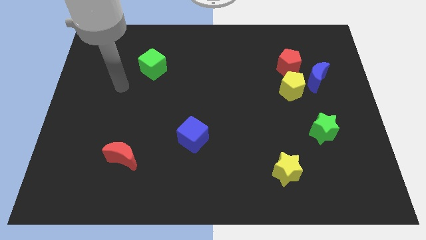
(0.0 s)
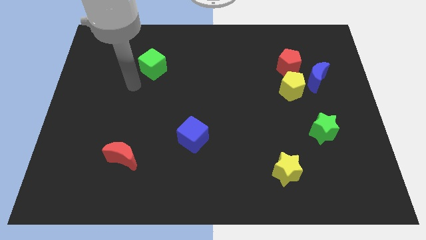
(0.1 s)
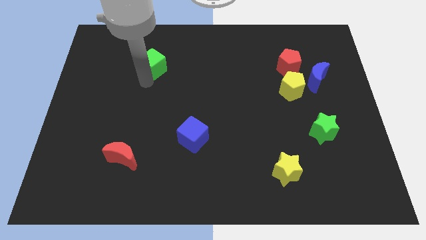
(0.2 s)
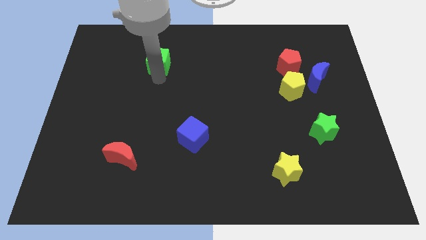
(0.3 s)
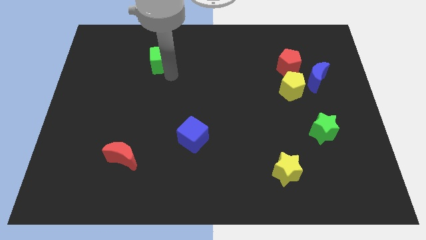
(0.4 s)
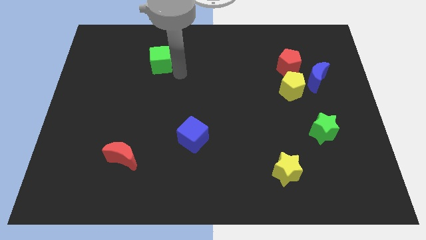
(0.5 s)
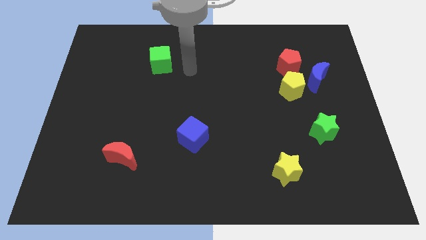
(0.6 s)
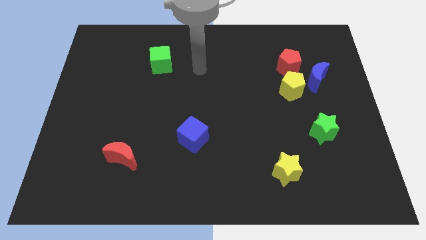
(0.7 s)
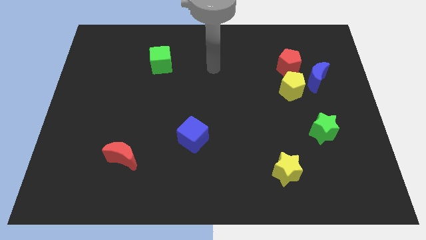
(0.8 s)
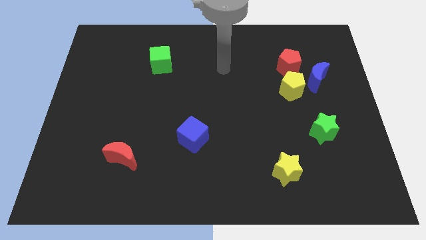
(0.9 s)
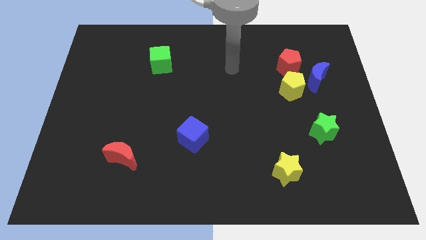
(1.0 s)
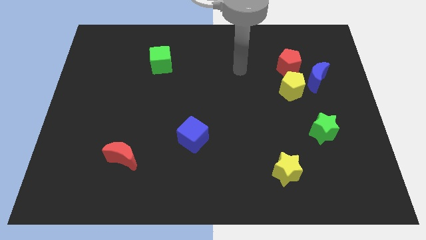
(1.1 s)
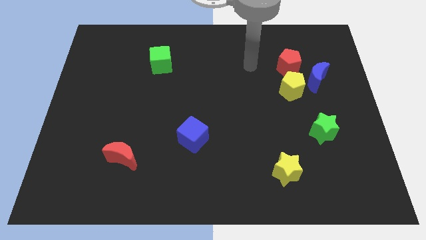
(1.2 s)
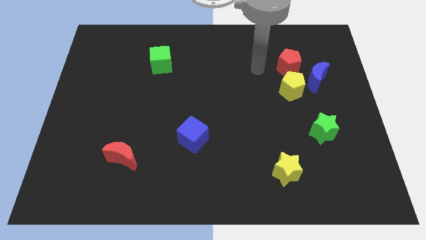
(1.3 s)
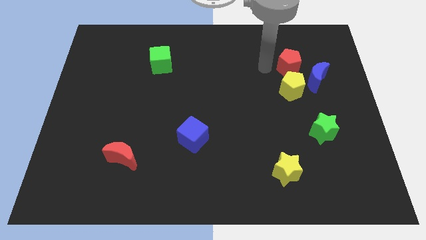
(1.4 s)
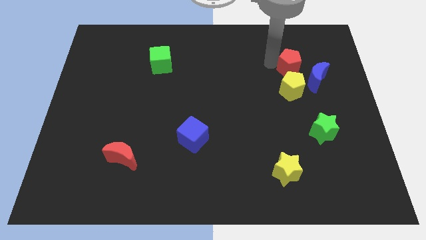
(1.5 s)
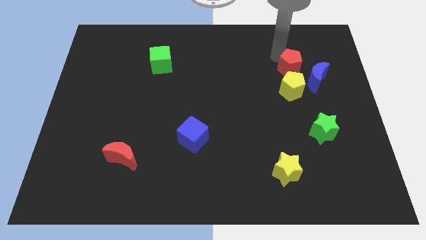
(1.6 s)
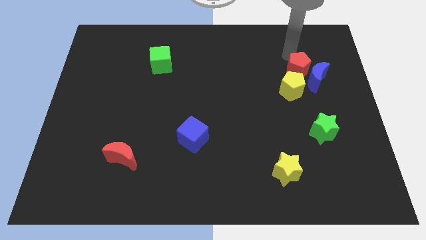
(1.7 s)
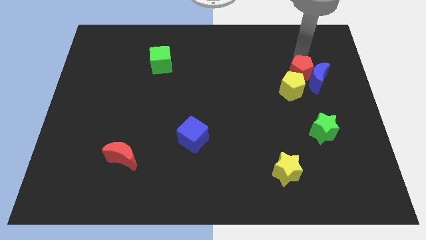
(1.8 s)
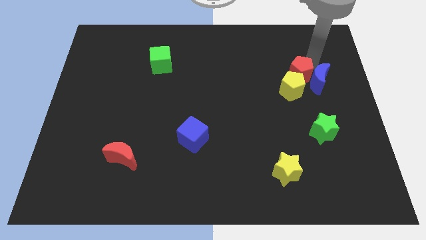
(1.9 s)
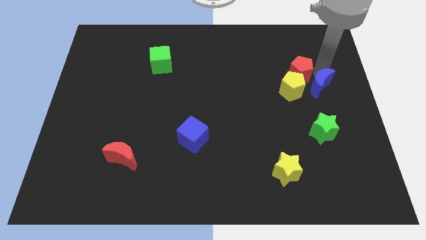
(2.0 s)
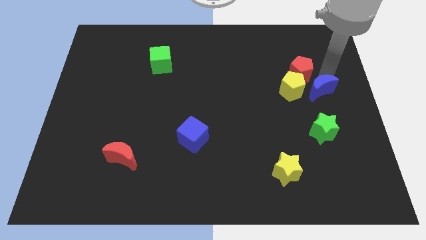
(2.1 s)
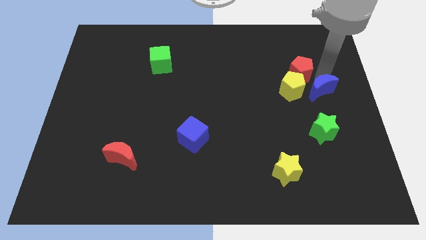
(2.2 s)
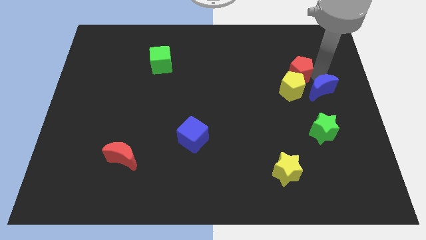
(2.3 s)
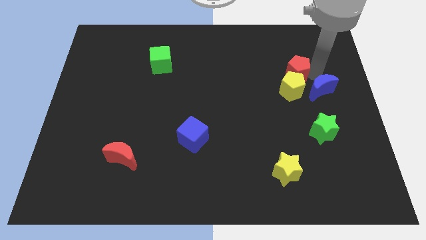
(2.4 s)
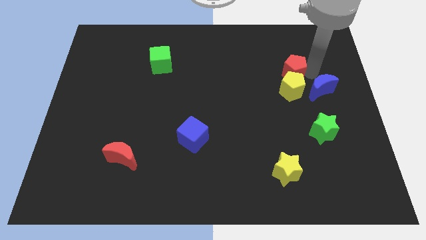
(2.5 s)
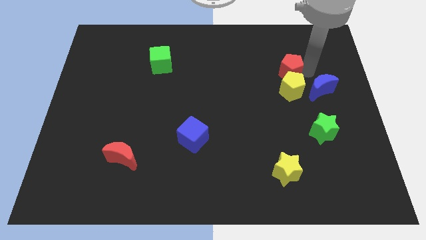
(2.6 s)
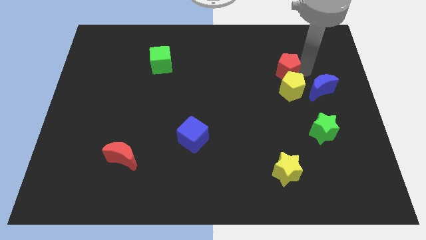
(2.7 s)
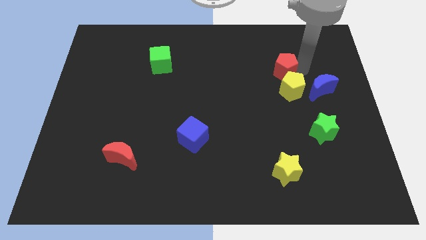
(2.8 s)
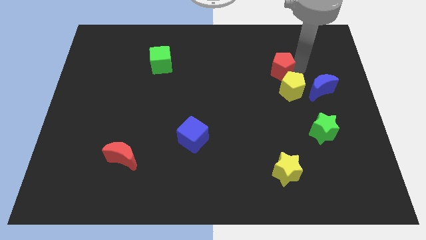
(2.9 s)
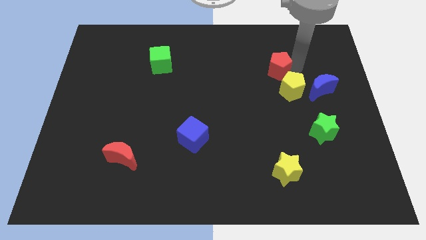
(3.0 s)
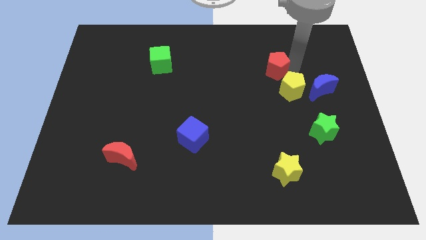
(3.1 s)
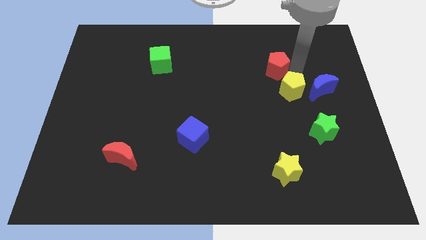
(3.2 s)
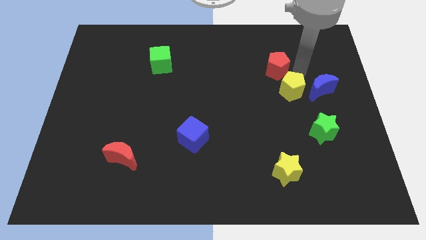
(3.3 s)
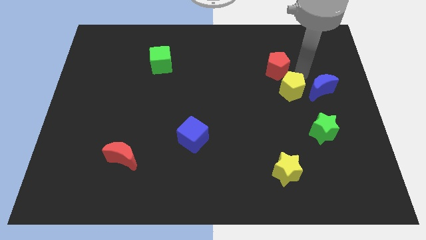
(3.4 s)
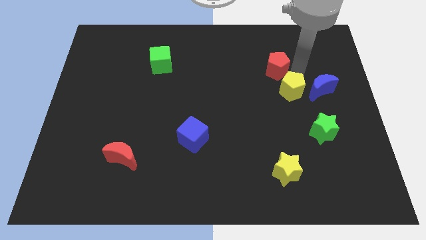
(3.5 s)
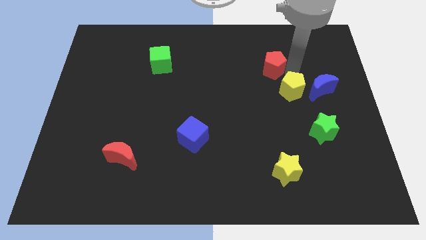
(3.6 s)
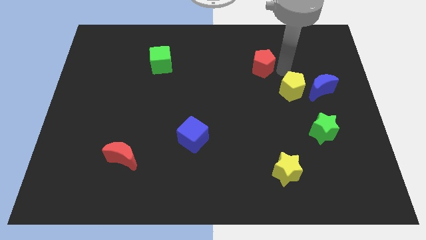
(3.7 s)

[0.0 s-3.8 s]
move the red pentagon left a little bit

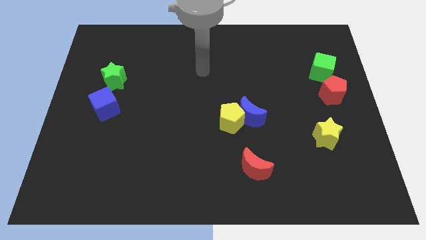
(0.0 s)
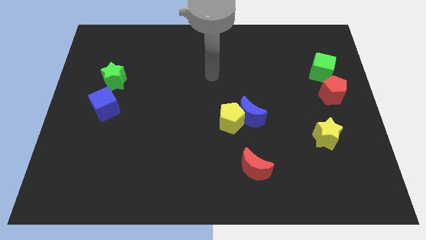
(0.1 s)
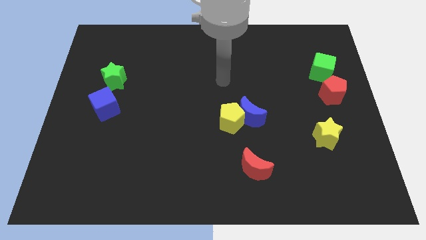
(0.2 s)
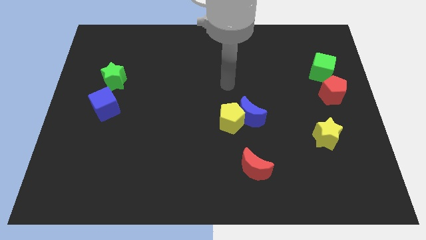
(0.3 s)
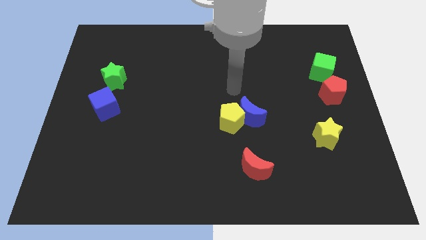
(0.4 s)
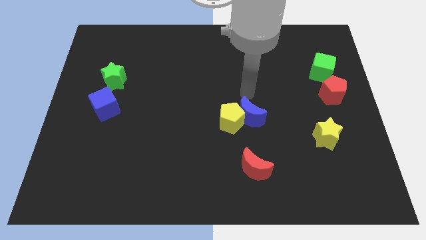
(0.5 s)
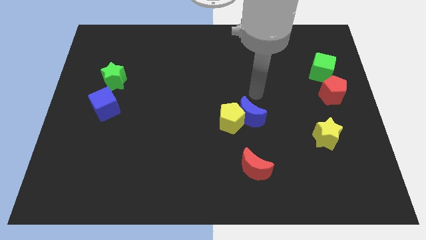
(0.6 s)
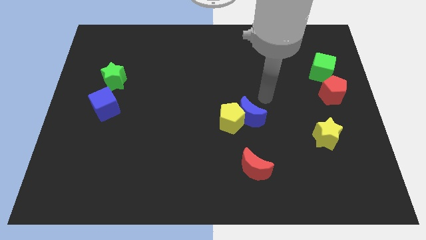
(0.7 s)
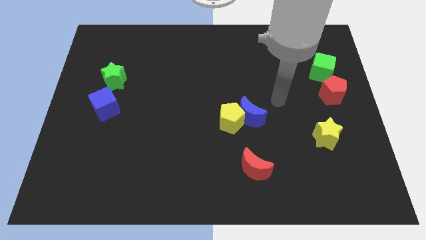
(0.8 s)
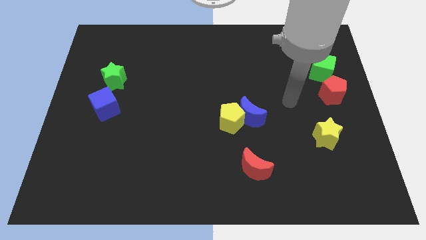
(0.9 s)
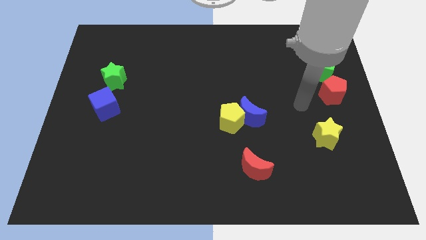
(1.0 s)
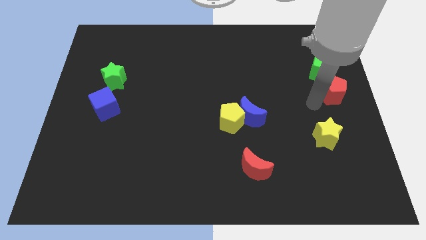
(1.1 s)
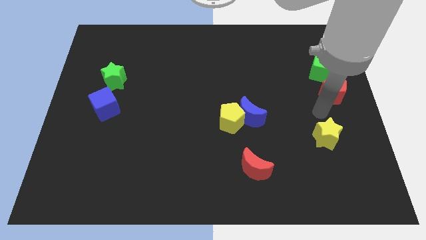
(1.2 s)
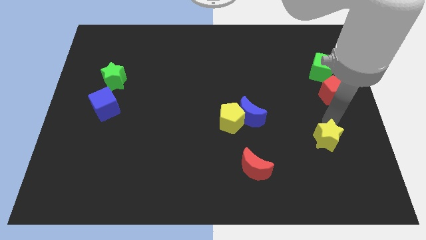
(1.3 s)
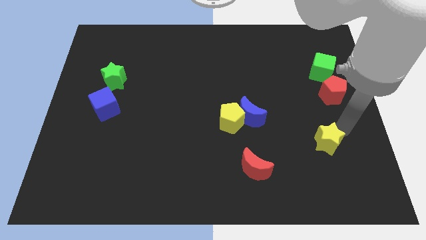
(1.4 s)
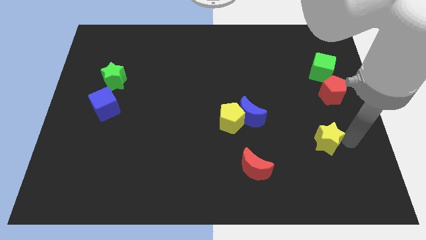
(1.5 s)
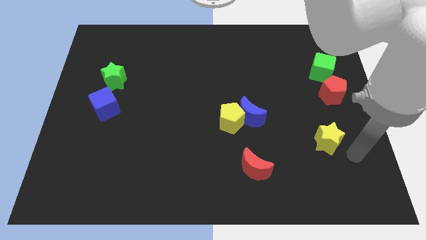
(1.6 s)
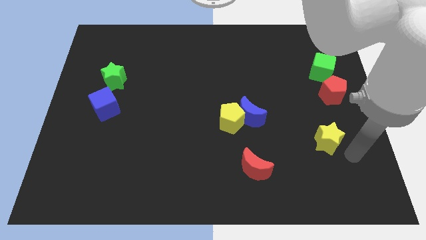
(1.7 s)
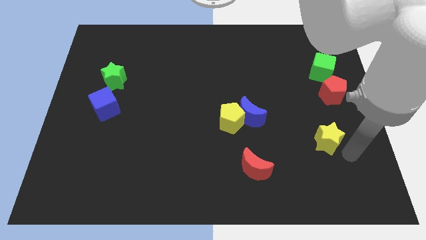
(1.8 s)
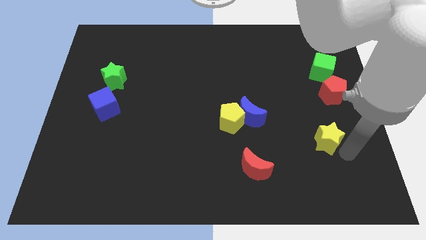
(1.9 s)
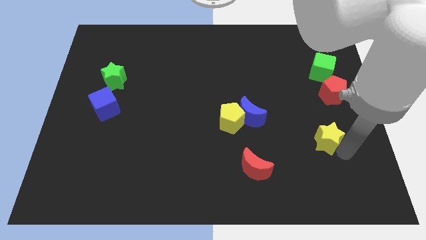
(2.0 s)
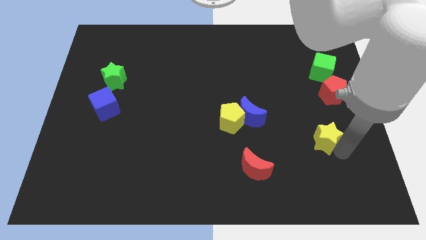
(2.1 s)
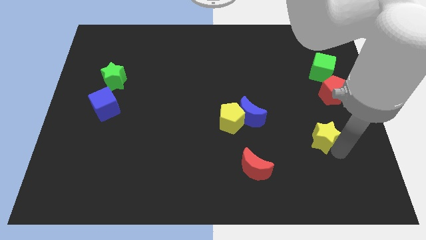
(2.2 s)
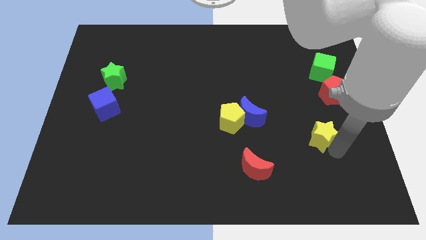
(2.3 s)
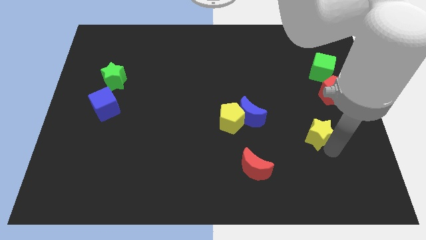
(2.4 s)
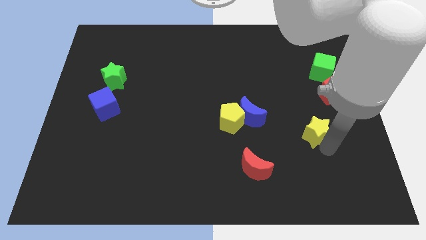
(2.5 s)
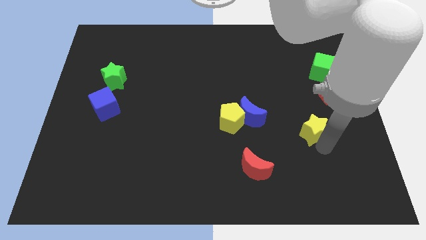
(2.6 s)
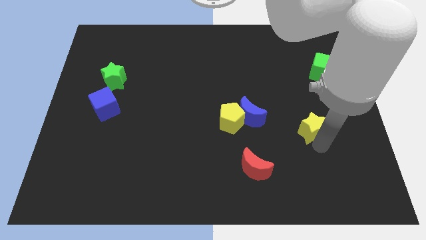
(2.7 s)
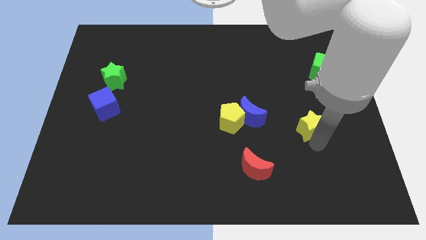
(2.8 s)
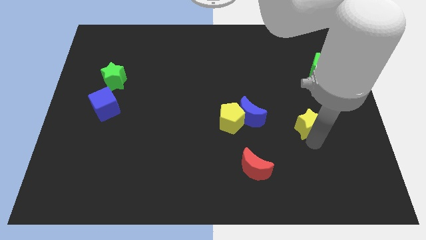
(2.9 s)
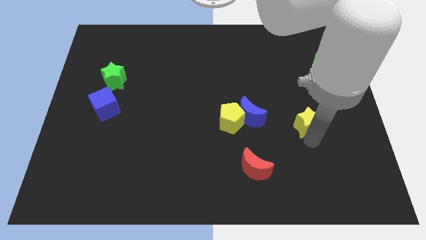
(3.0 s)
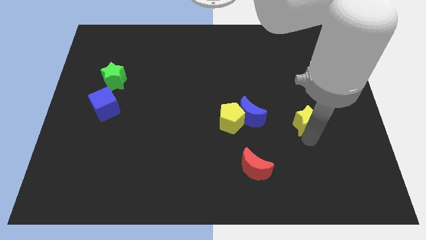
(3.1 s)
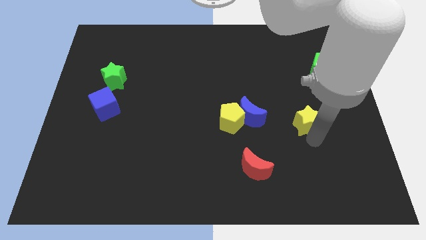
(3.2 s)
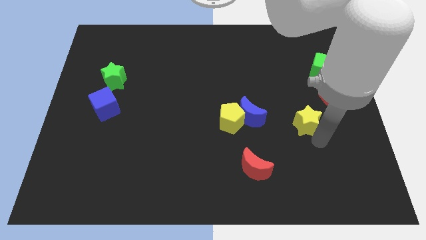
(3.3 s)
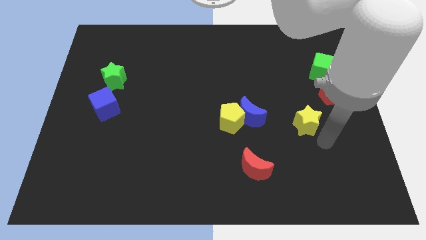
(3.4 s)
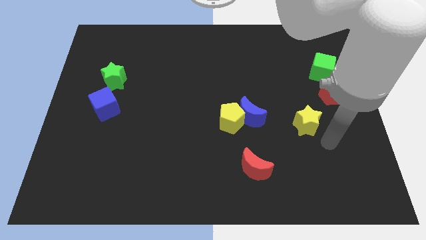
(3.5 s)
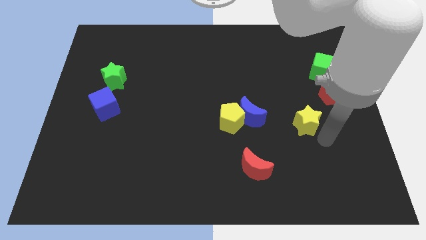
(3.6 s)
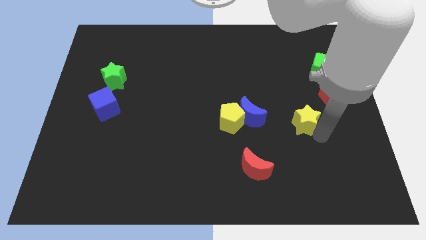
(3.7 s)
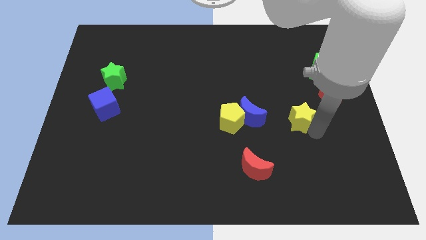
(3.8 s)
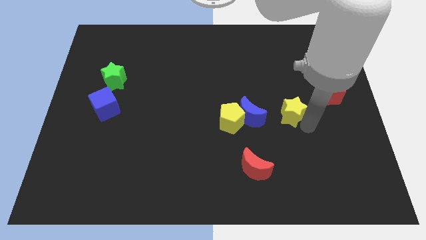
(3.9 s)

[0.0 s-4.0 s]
push the yellow star diagonally up and to the left a bit
